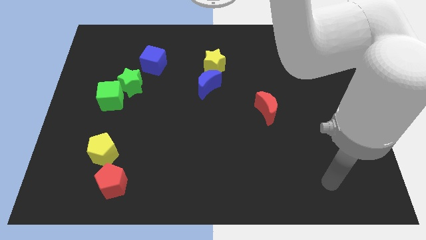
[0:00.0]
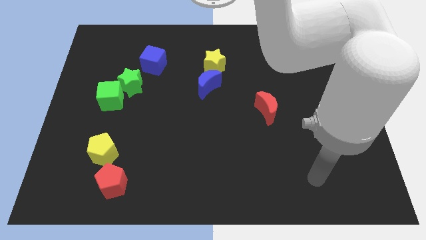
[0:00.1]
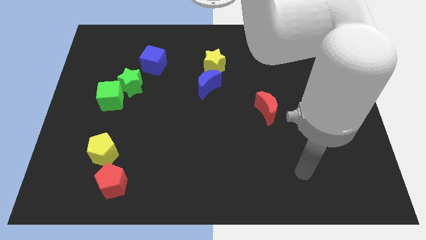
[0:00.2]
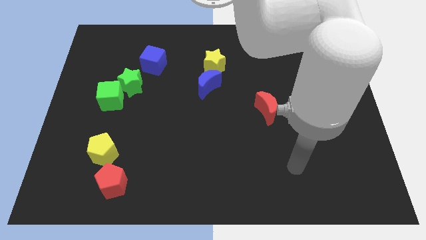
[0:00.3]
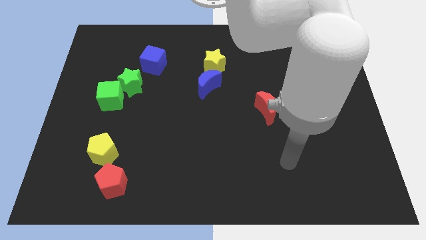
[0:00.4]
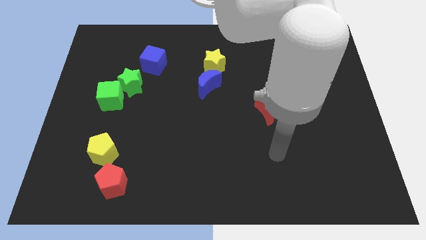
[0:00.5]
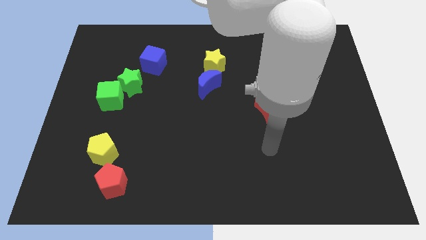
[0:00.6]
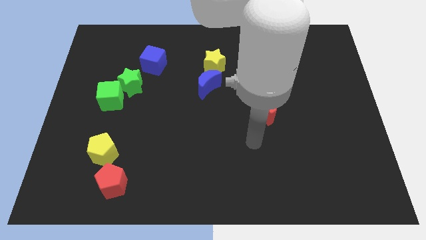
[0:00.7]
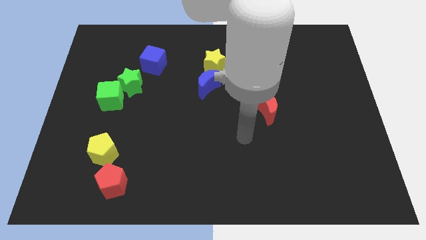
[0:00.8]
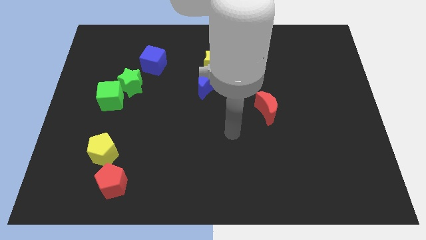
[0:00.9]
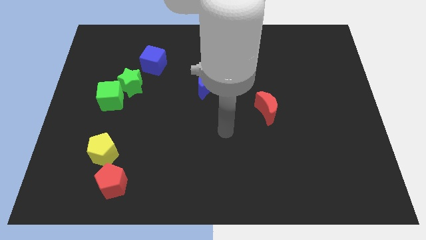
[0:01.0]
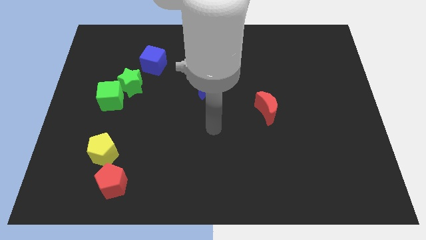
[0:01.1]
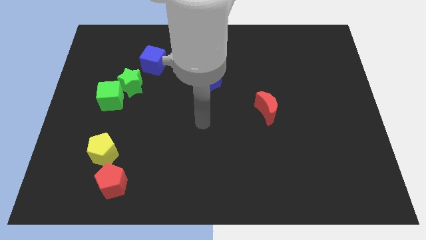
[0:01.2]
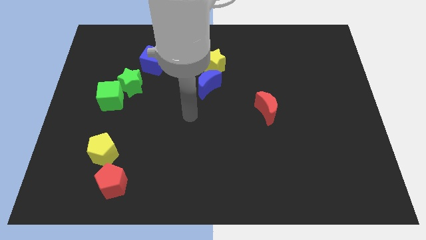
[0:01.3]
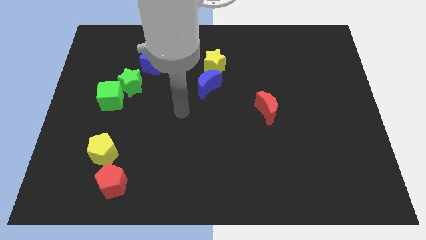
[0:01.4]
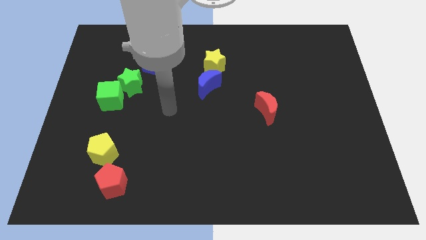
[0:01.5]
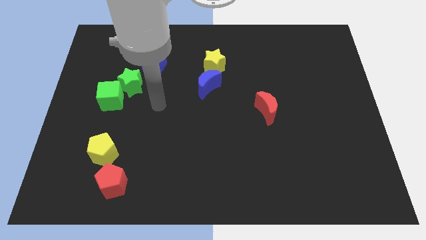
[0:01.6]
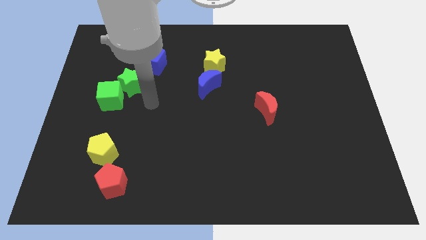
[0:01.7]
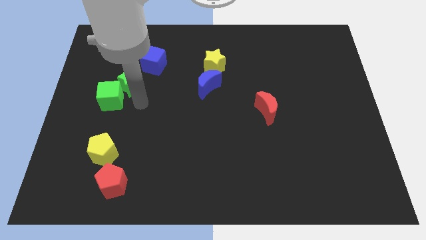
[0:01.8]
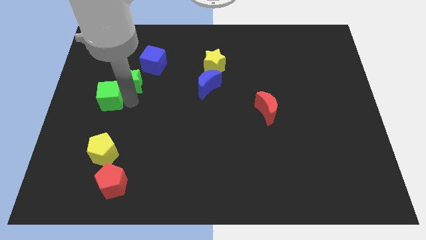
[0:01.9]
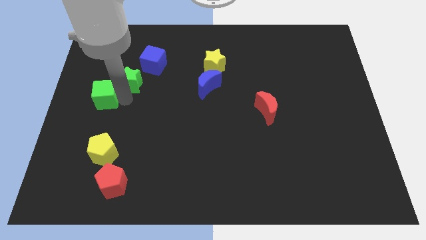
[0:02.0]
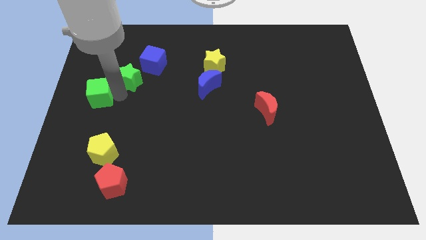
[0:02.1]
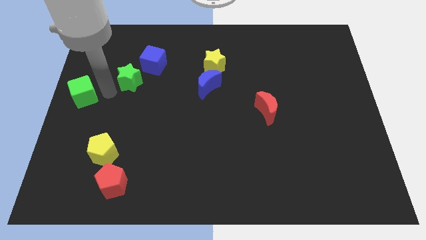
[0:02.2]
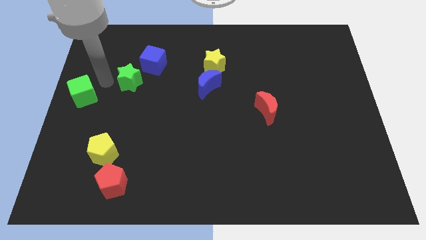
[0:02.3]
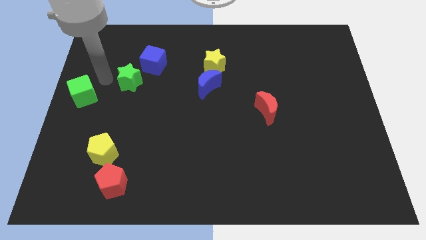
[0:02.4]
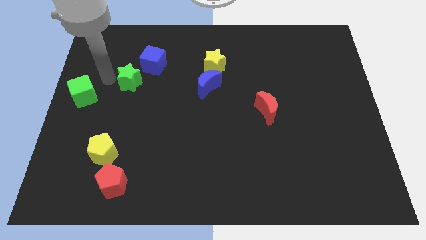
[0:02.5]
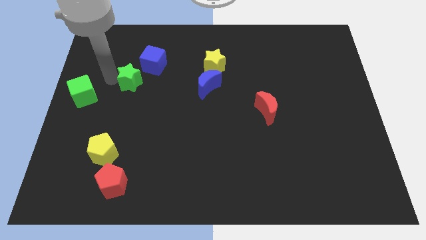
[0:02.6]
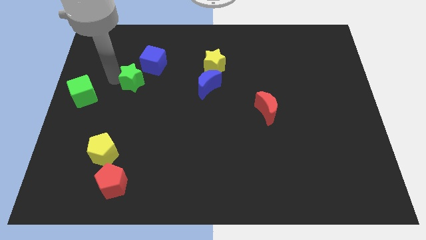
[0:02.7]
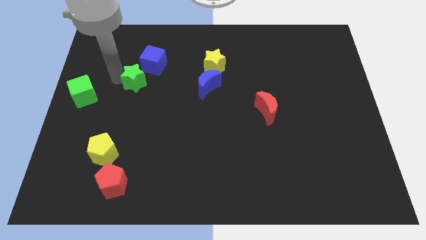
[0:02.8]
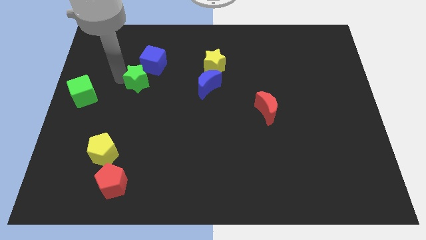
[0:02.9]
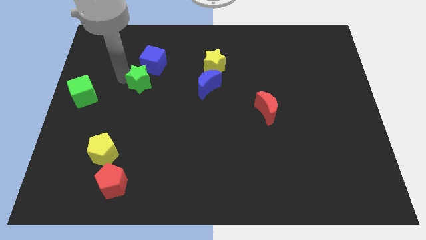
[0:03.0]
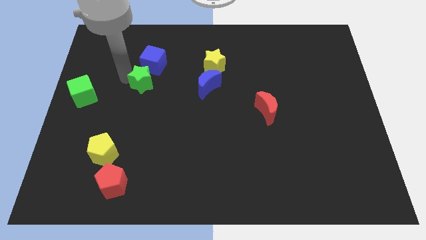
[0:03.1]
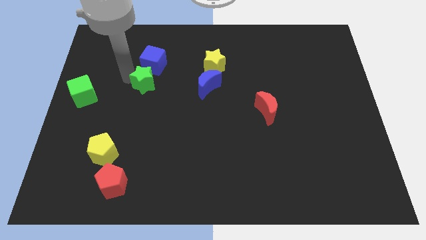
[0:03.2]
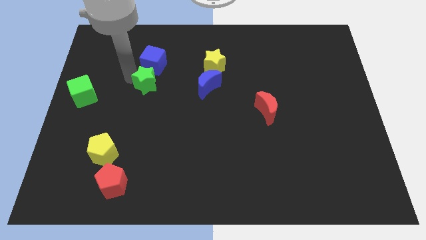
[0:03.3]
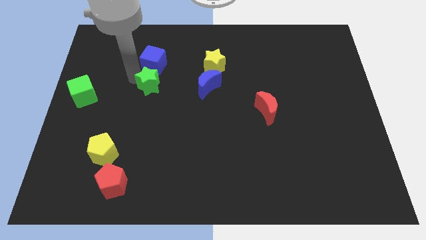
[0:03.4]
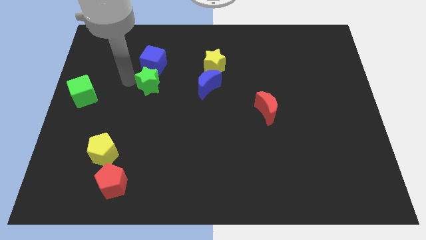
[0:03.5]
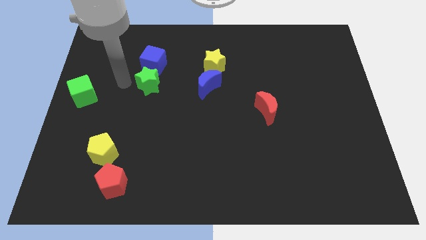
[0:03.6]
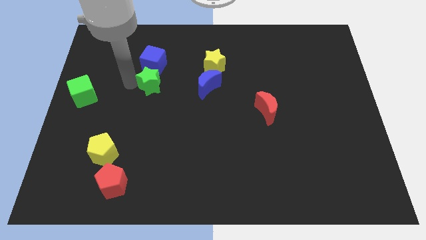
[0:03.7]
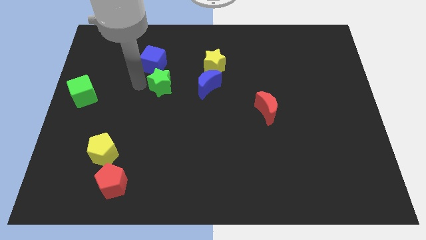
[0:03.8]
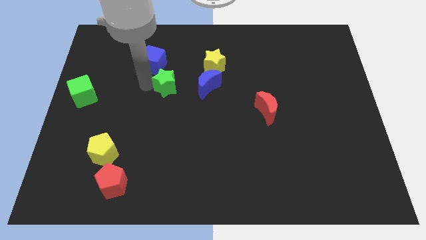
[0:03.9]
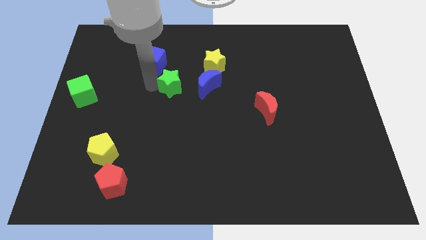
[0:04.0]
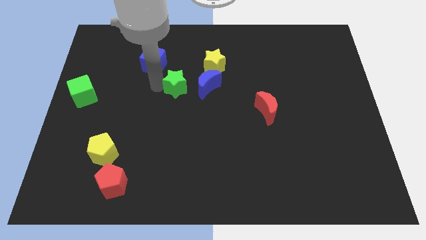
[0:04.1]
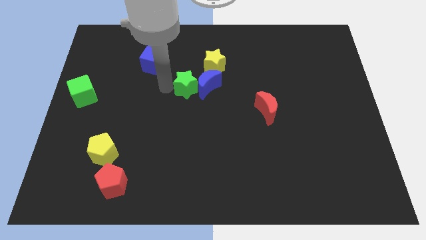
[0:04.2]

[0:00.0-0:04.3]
slide the green star to the blue moon

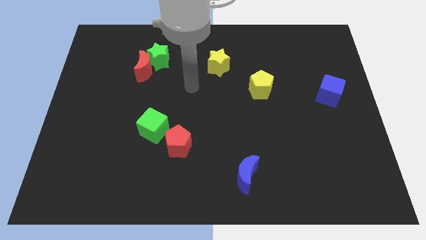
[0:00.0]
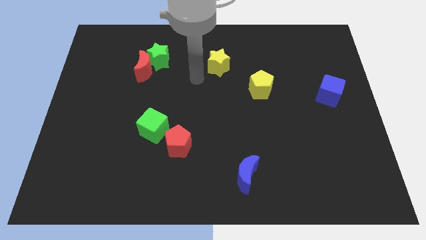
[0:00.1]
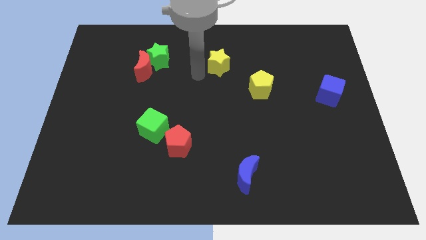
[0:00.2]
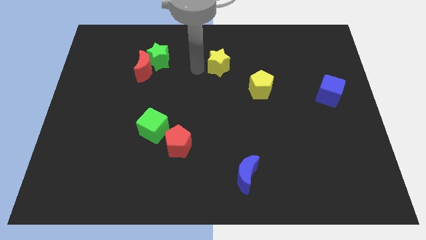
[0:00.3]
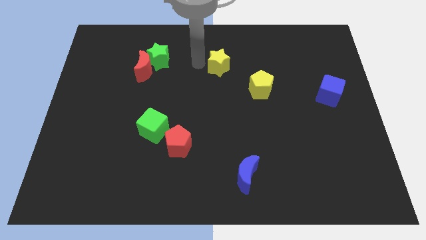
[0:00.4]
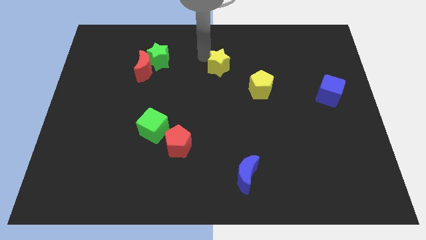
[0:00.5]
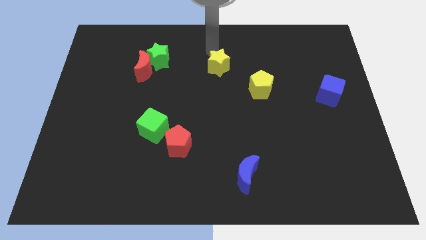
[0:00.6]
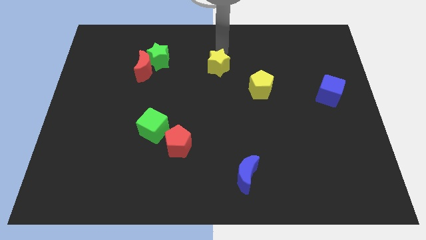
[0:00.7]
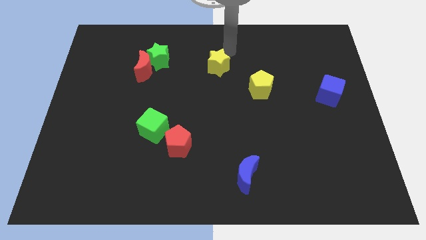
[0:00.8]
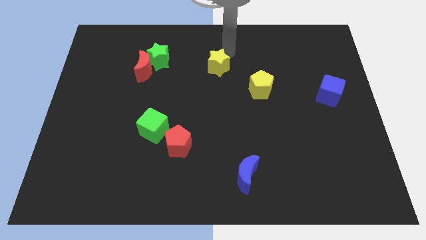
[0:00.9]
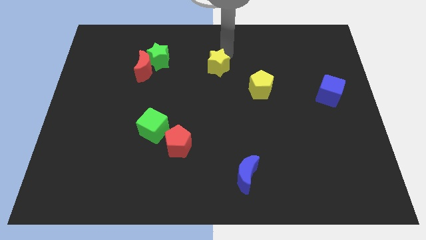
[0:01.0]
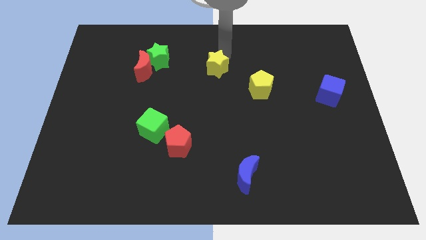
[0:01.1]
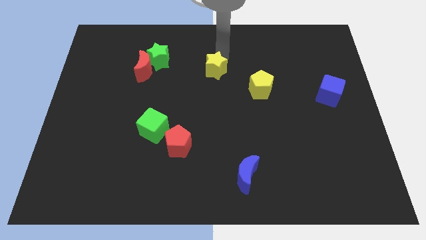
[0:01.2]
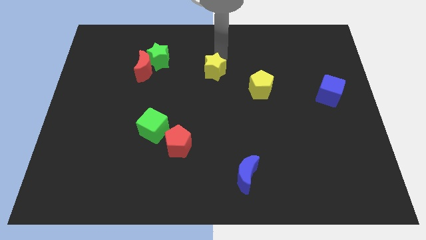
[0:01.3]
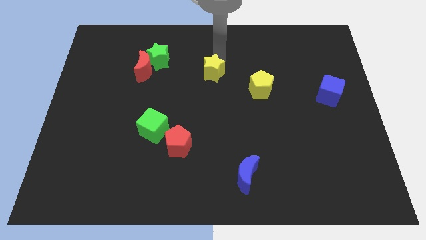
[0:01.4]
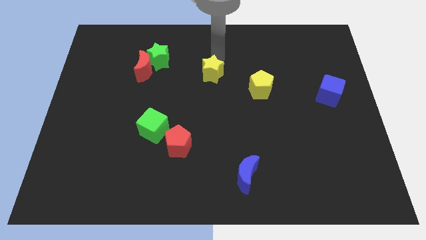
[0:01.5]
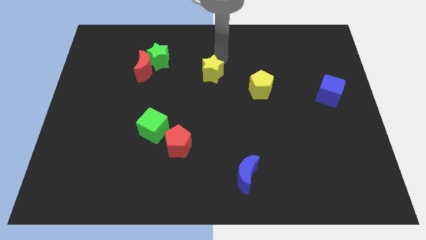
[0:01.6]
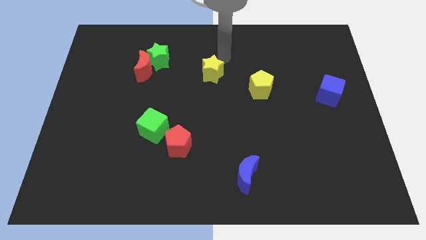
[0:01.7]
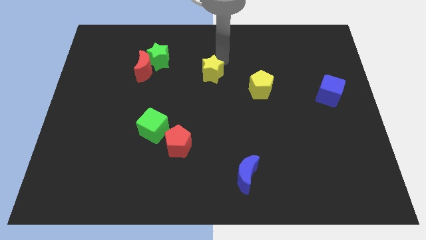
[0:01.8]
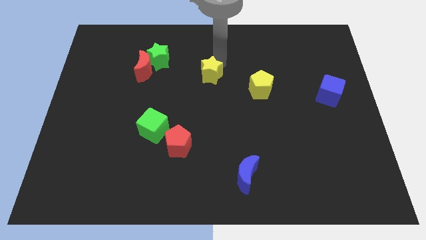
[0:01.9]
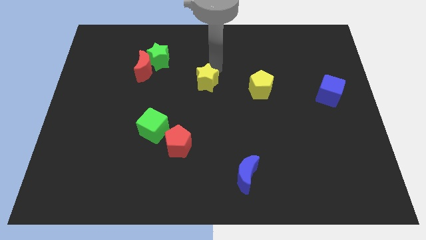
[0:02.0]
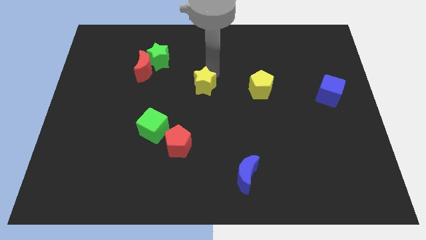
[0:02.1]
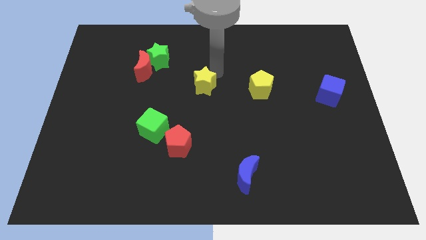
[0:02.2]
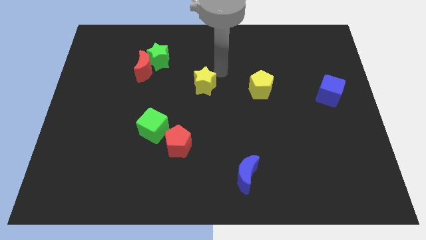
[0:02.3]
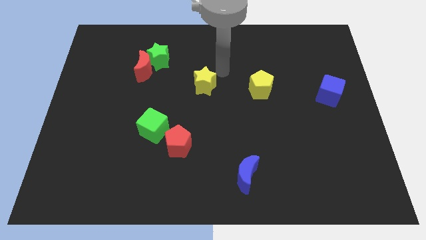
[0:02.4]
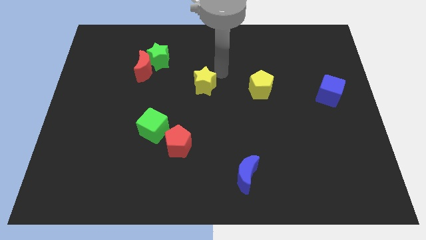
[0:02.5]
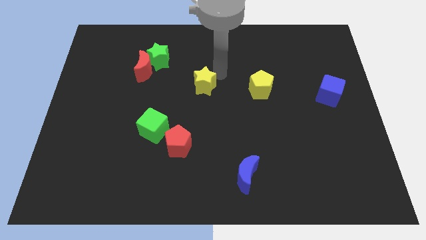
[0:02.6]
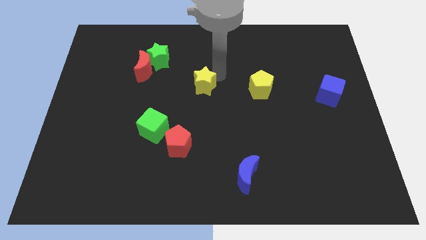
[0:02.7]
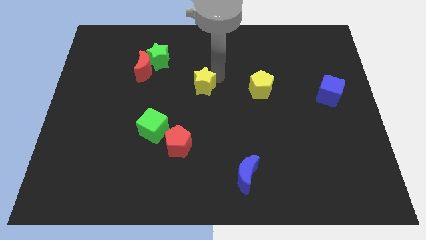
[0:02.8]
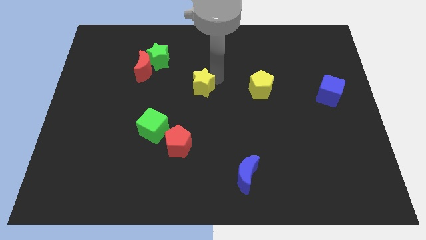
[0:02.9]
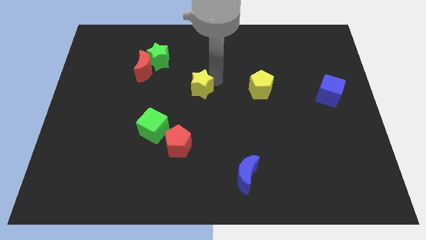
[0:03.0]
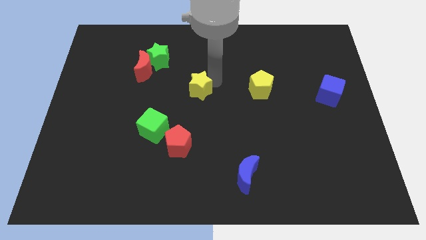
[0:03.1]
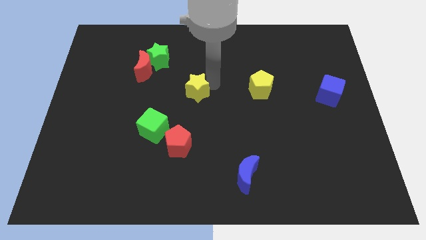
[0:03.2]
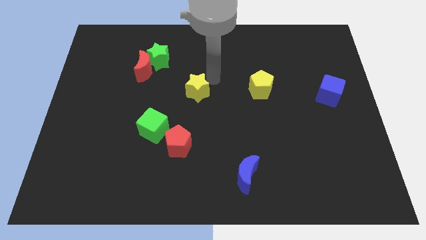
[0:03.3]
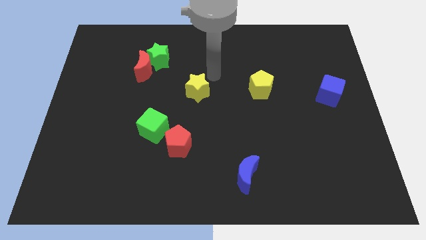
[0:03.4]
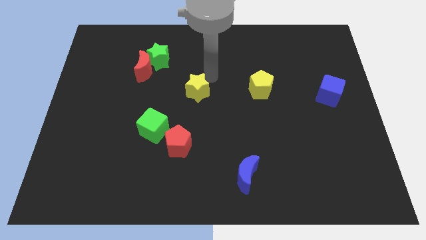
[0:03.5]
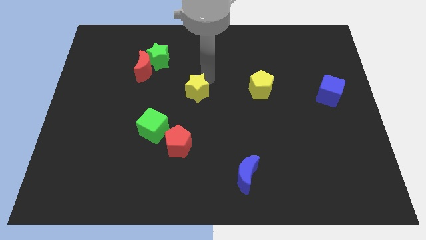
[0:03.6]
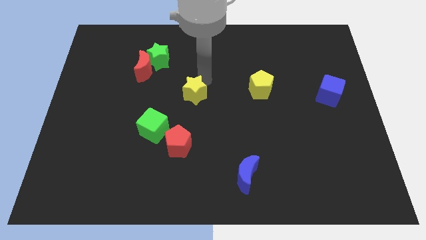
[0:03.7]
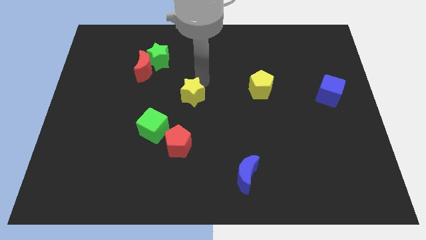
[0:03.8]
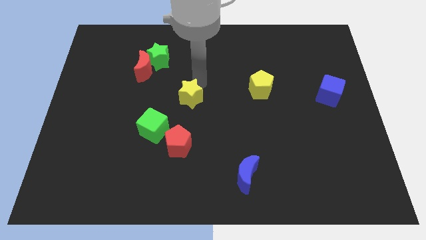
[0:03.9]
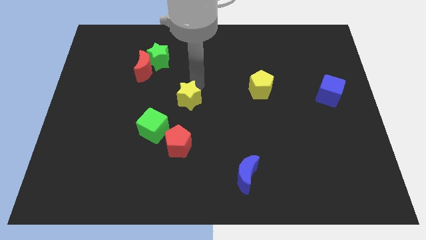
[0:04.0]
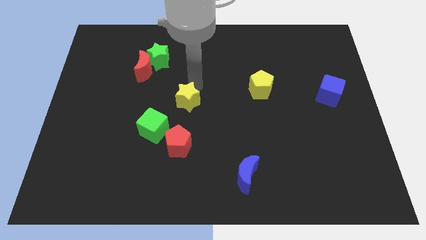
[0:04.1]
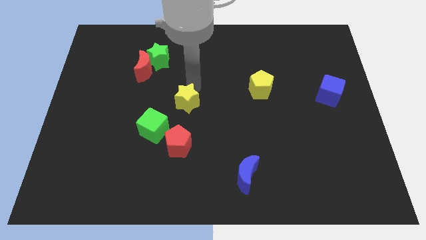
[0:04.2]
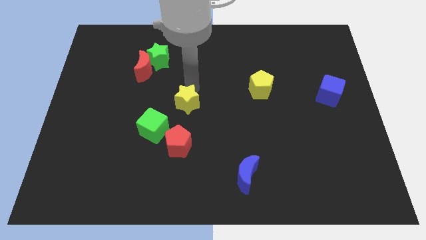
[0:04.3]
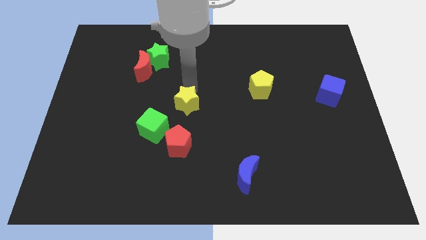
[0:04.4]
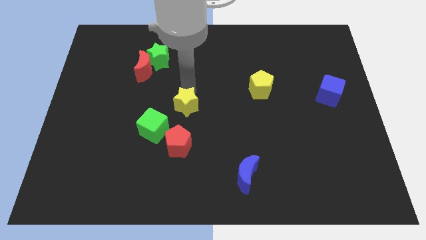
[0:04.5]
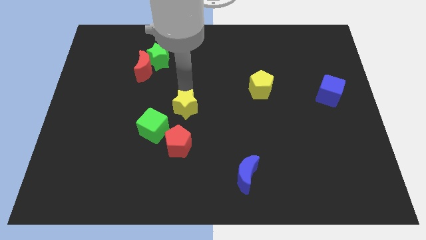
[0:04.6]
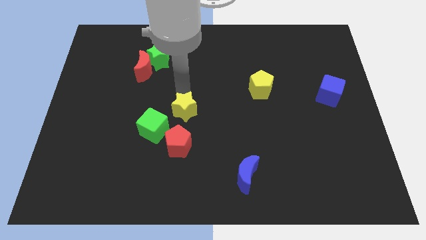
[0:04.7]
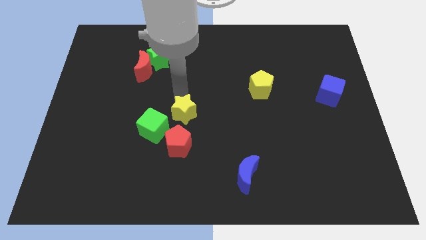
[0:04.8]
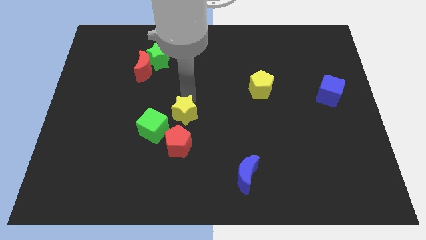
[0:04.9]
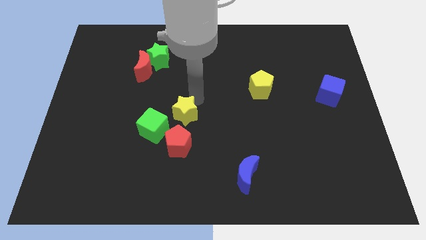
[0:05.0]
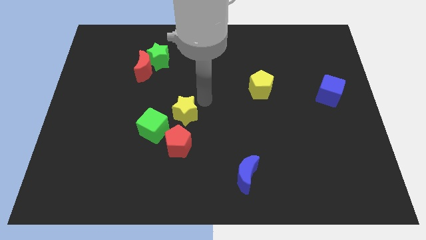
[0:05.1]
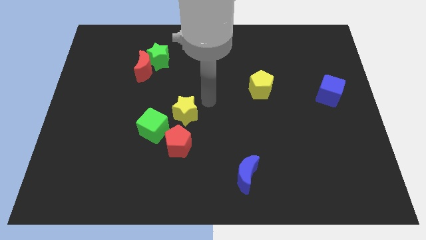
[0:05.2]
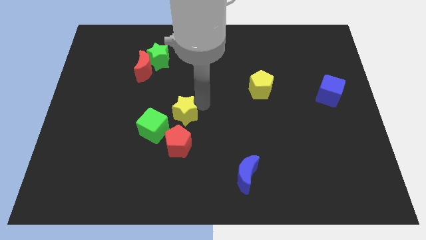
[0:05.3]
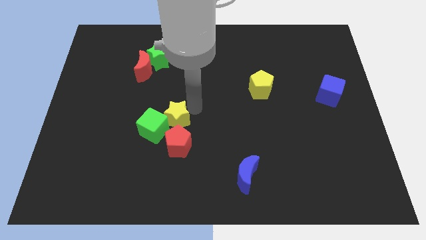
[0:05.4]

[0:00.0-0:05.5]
put the yellow star to the green cube
